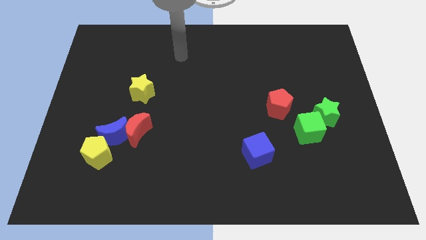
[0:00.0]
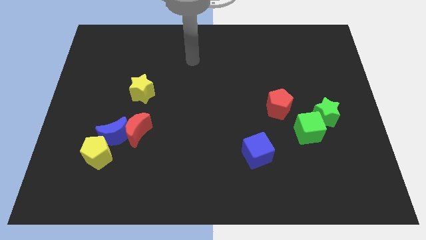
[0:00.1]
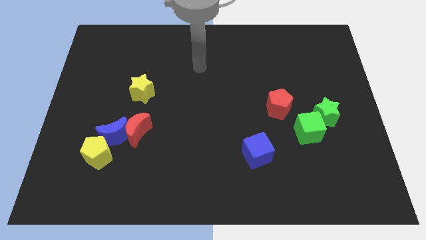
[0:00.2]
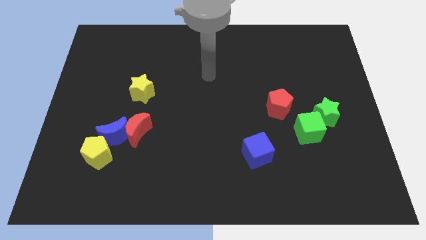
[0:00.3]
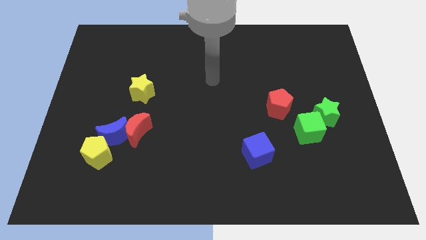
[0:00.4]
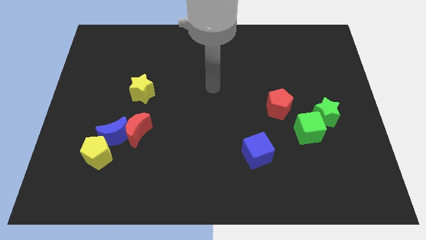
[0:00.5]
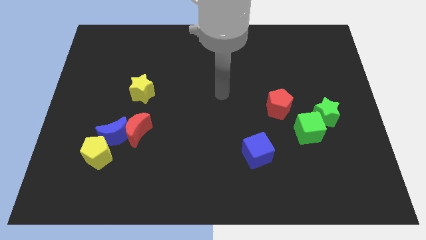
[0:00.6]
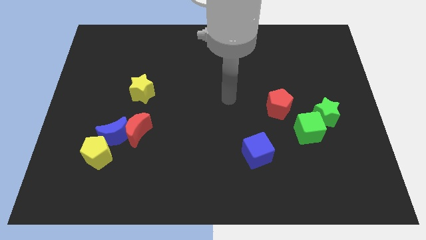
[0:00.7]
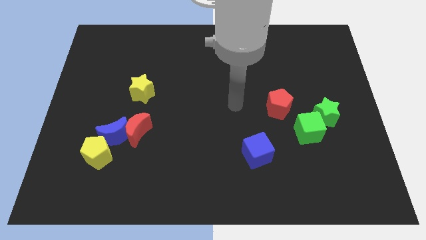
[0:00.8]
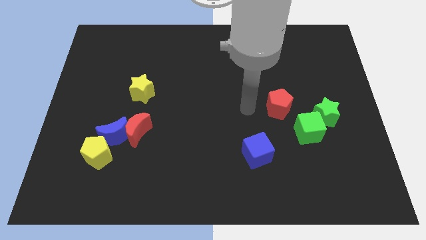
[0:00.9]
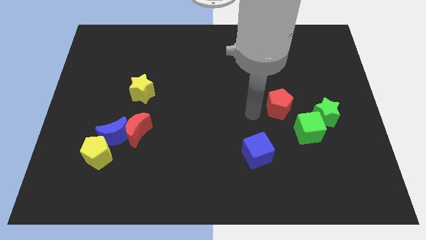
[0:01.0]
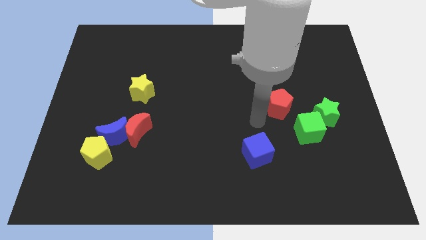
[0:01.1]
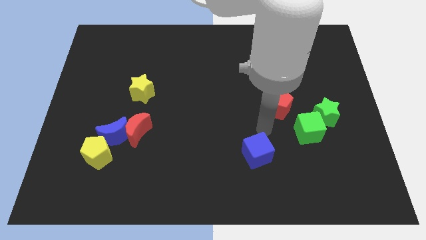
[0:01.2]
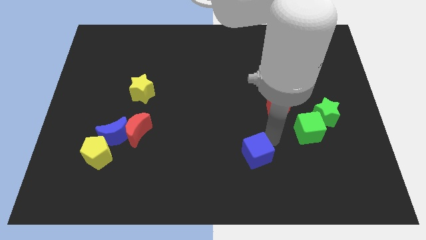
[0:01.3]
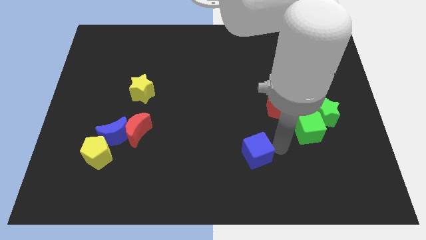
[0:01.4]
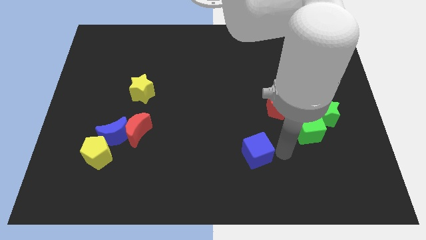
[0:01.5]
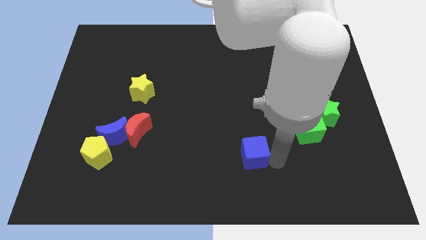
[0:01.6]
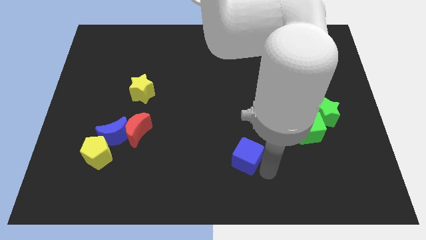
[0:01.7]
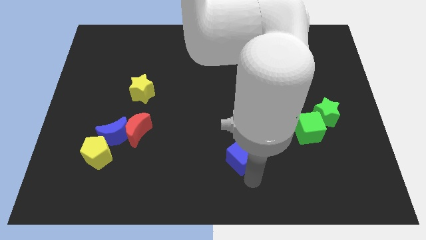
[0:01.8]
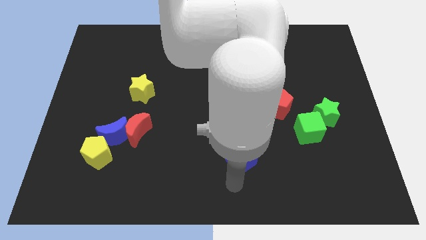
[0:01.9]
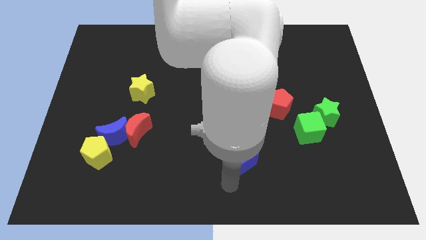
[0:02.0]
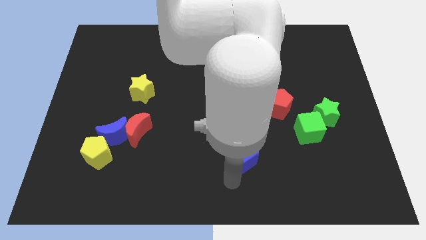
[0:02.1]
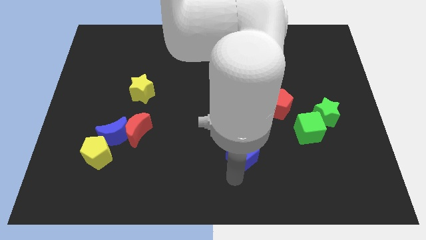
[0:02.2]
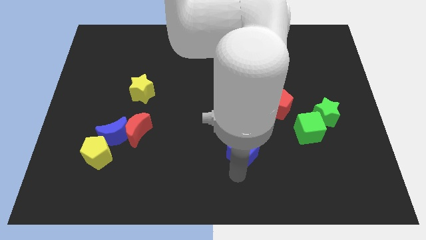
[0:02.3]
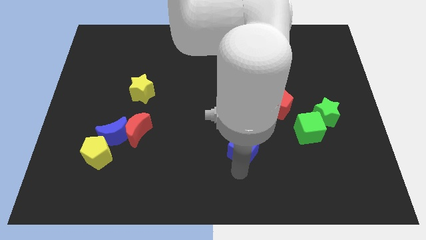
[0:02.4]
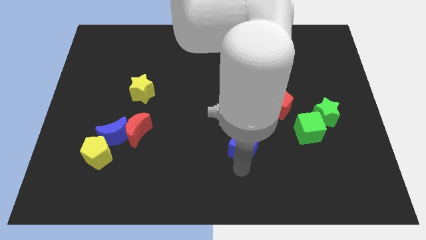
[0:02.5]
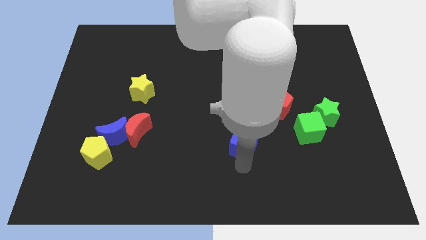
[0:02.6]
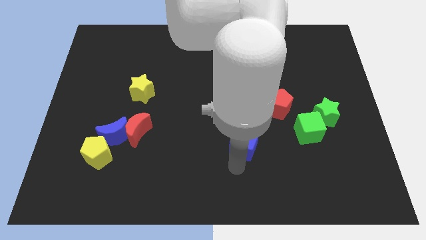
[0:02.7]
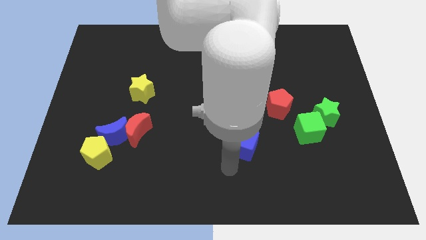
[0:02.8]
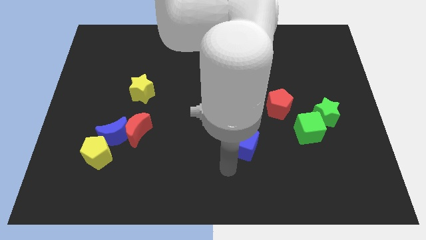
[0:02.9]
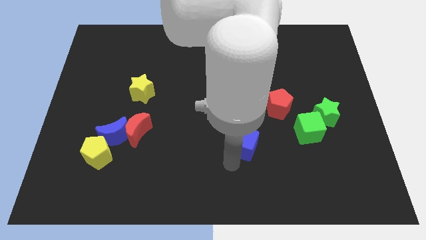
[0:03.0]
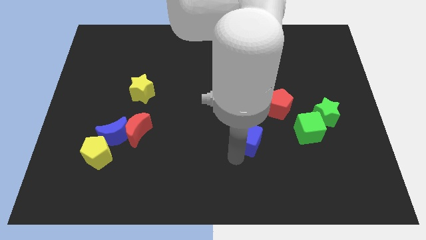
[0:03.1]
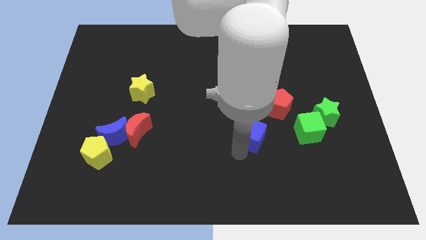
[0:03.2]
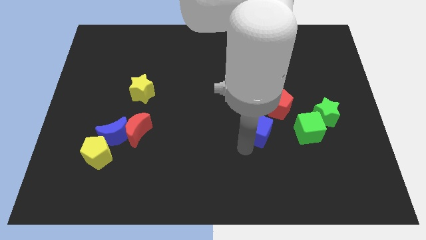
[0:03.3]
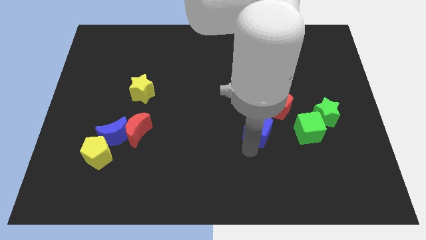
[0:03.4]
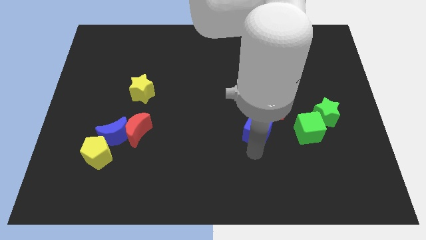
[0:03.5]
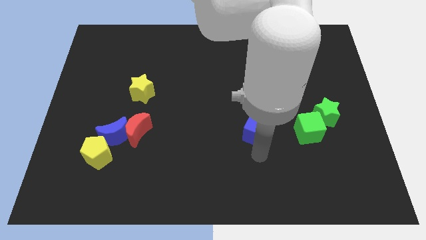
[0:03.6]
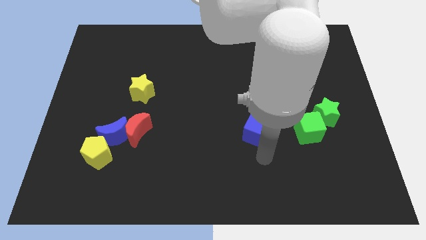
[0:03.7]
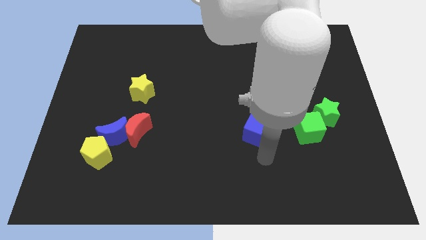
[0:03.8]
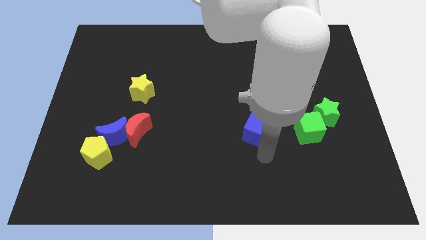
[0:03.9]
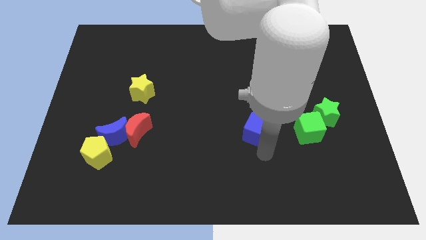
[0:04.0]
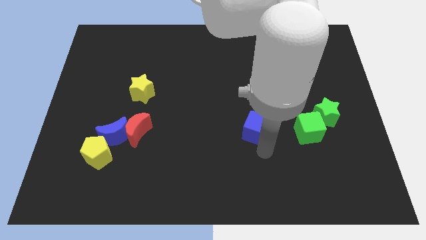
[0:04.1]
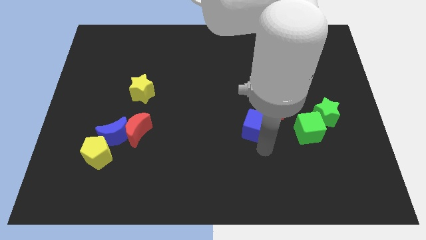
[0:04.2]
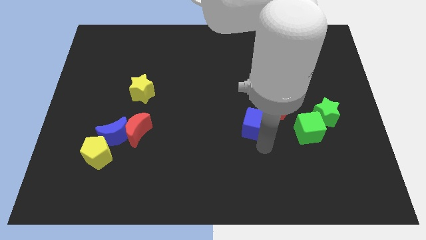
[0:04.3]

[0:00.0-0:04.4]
push the blue cube a little bit upwards

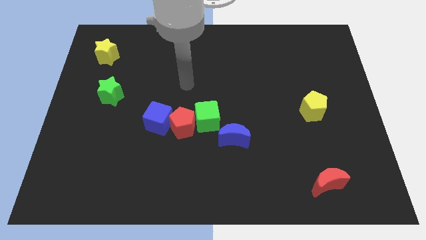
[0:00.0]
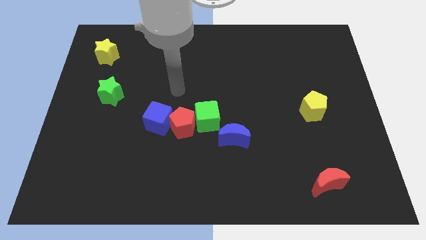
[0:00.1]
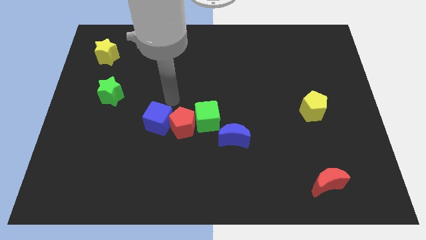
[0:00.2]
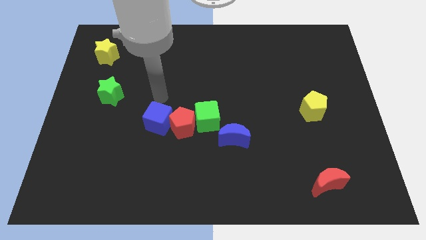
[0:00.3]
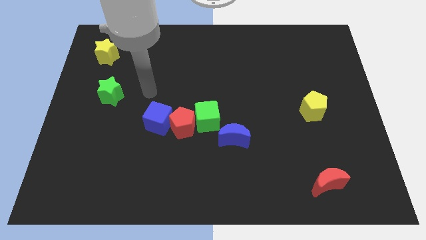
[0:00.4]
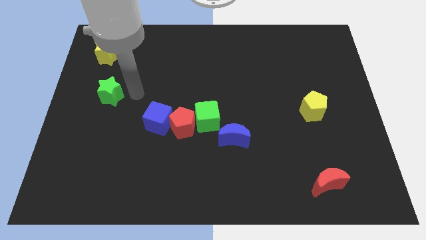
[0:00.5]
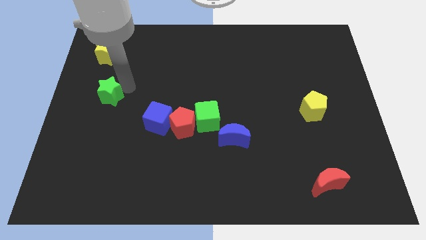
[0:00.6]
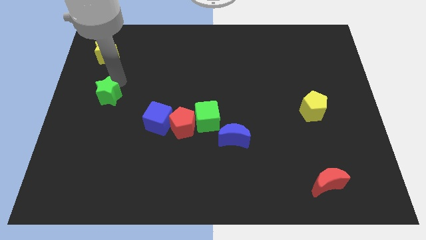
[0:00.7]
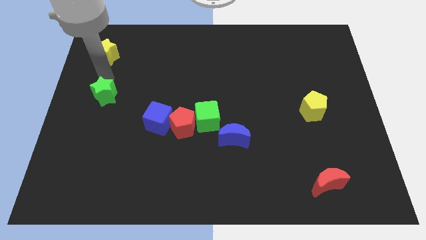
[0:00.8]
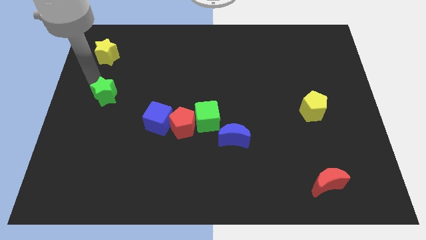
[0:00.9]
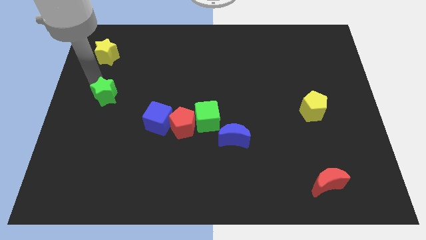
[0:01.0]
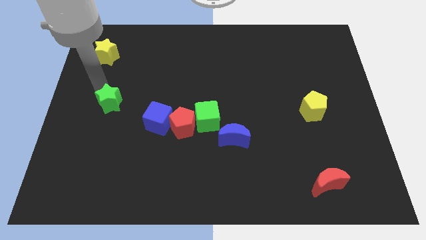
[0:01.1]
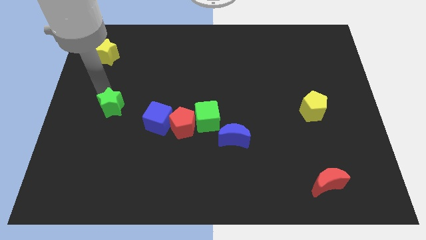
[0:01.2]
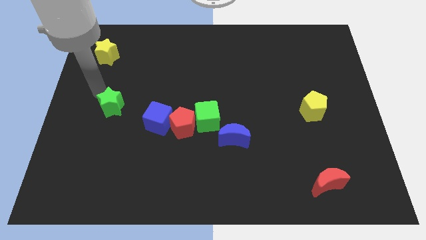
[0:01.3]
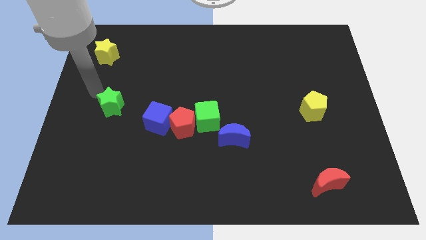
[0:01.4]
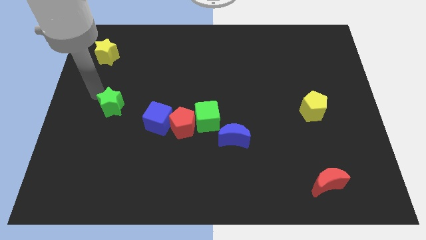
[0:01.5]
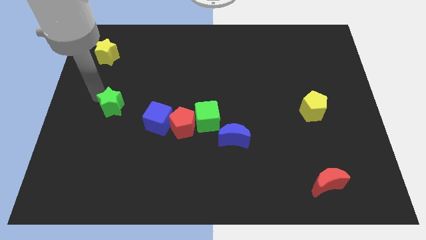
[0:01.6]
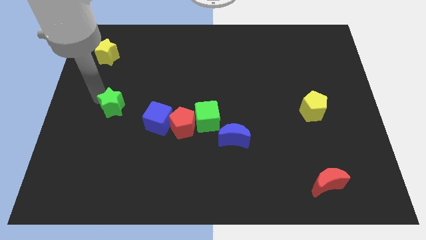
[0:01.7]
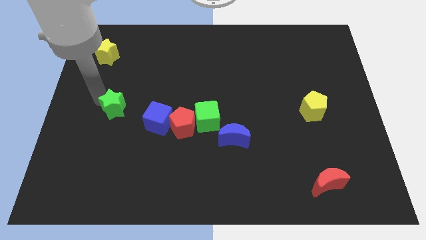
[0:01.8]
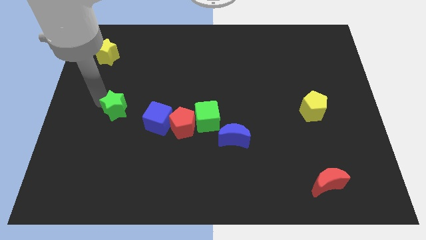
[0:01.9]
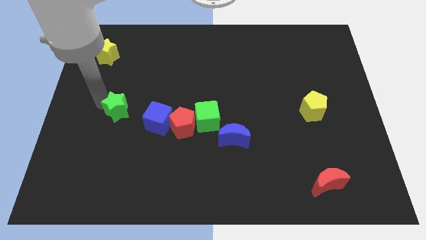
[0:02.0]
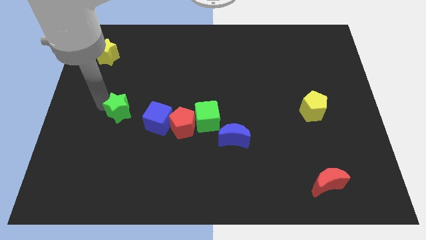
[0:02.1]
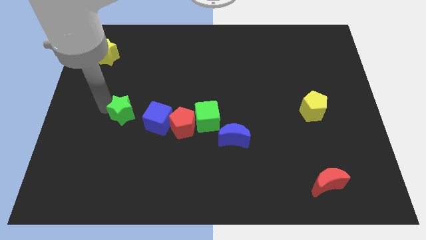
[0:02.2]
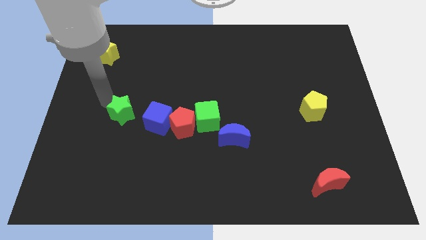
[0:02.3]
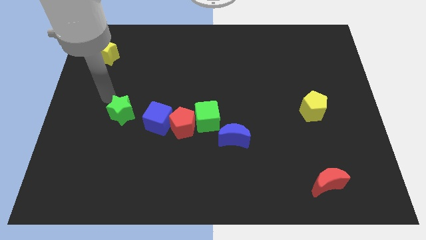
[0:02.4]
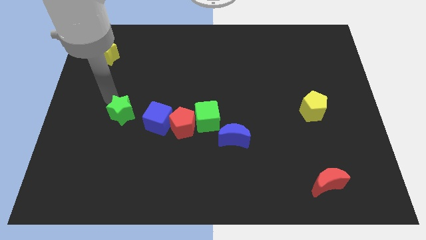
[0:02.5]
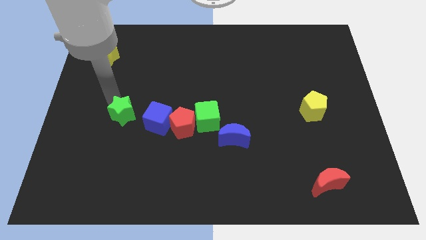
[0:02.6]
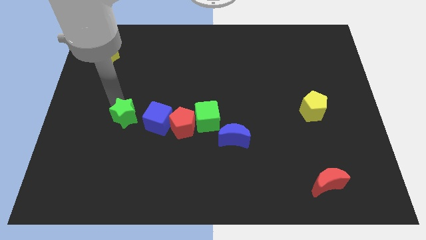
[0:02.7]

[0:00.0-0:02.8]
slightly slide the green star downwards and then right

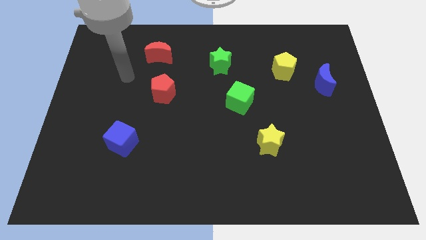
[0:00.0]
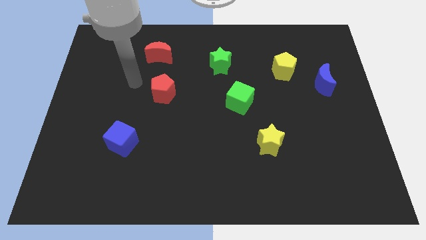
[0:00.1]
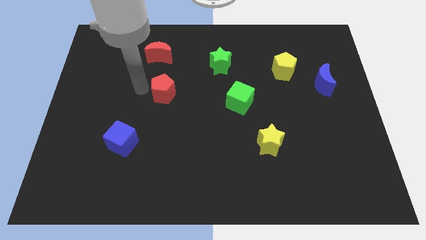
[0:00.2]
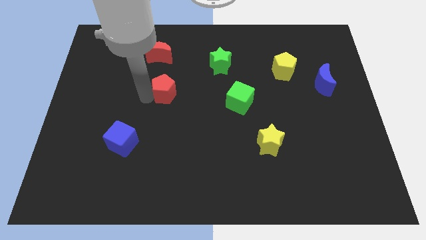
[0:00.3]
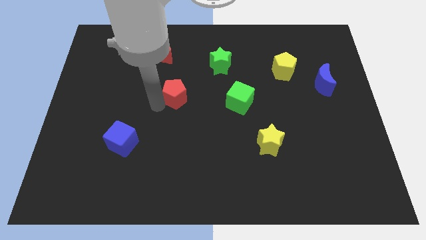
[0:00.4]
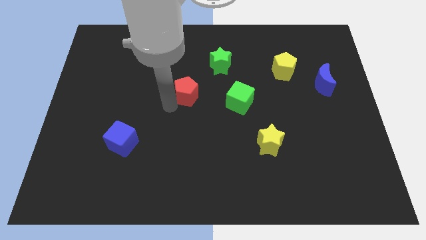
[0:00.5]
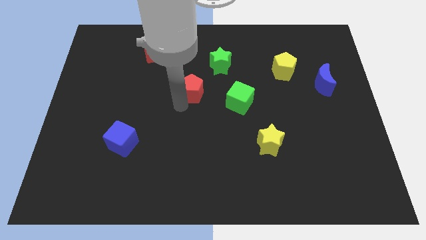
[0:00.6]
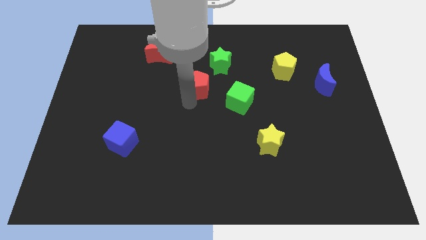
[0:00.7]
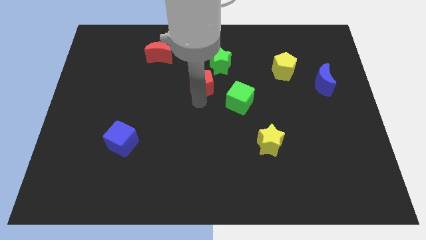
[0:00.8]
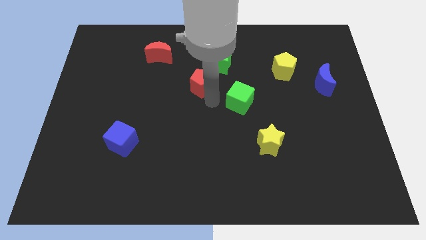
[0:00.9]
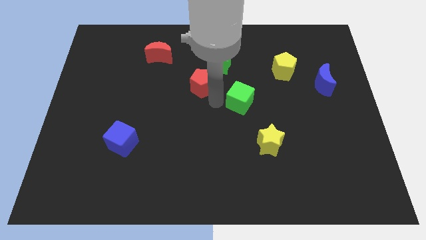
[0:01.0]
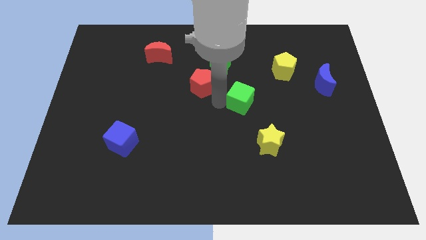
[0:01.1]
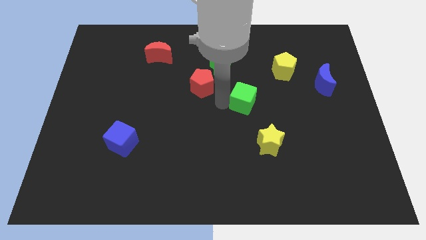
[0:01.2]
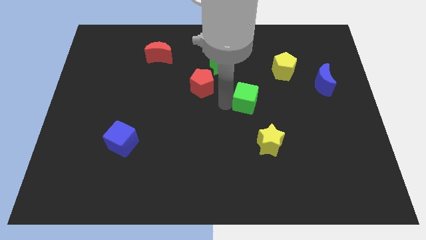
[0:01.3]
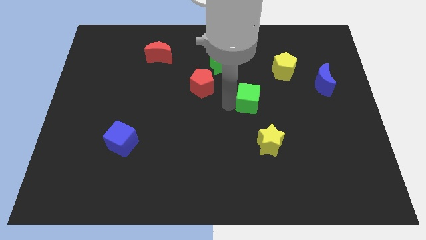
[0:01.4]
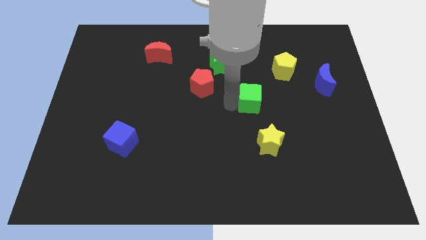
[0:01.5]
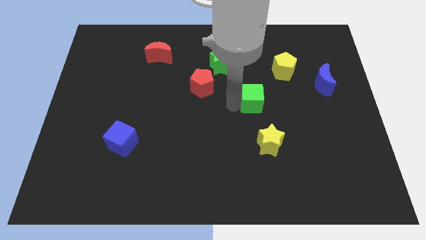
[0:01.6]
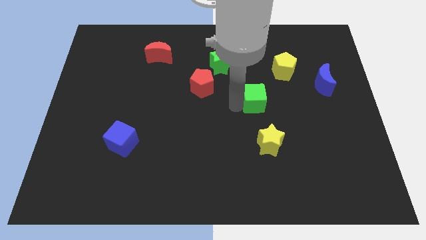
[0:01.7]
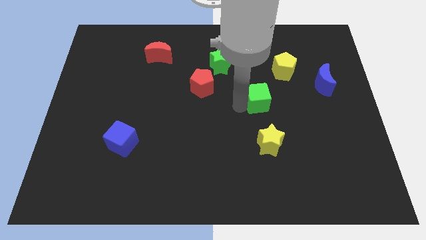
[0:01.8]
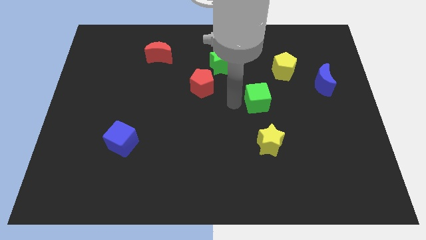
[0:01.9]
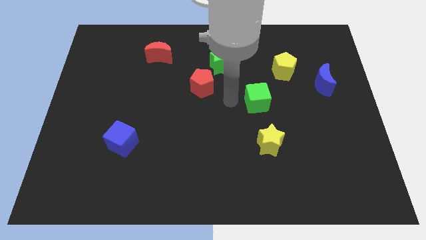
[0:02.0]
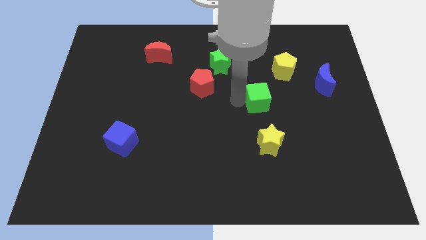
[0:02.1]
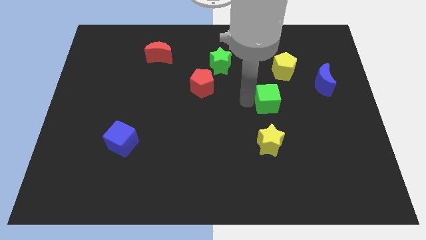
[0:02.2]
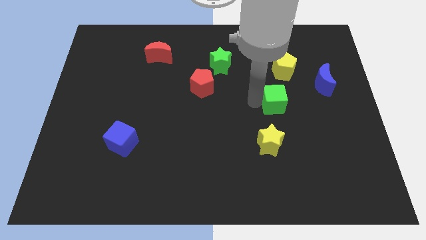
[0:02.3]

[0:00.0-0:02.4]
slightly move the green cube to the right
